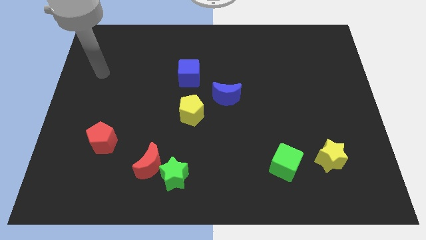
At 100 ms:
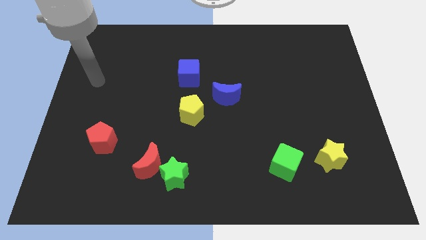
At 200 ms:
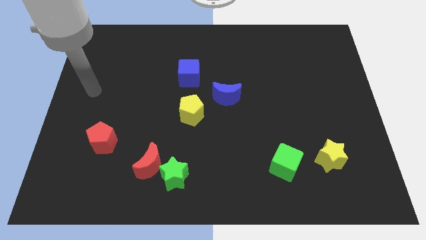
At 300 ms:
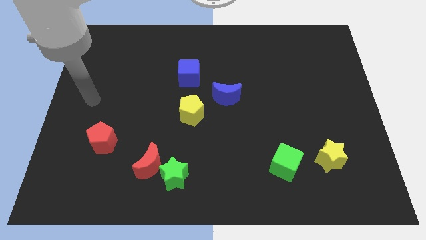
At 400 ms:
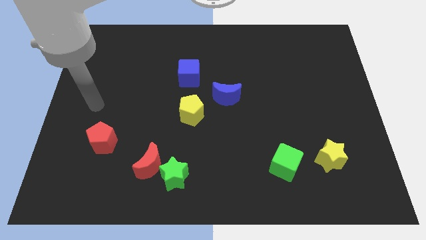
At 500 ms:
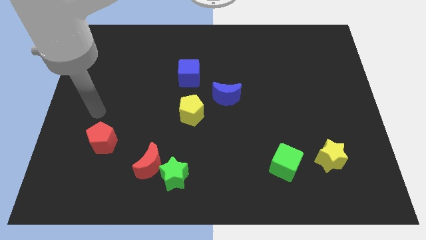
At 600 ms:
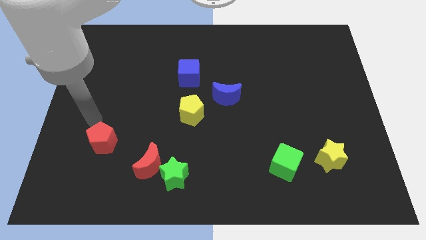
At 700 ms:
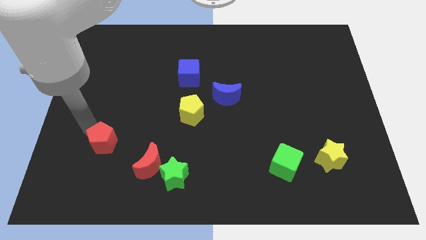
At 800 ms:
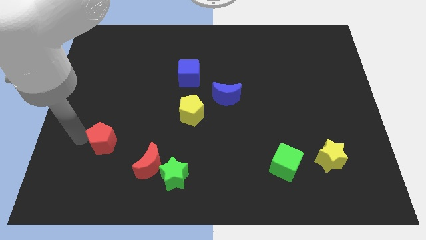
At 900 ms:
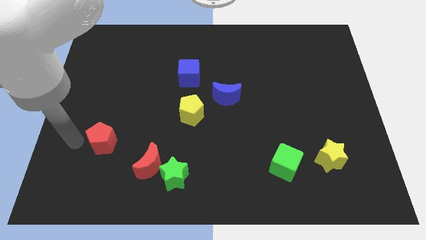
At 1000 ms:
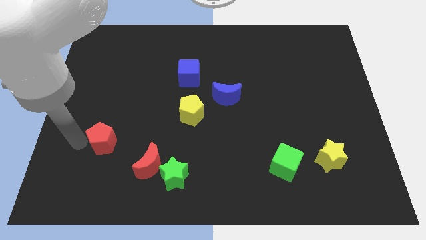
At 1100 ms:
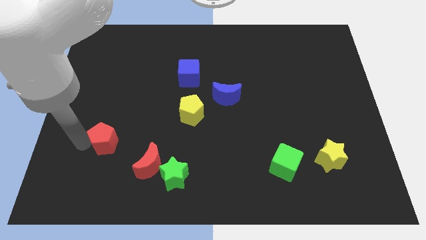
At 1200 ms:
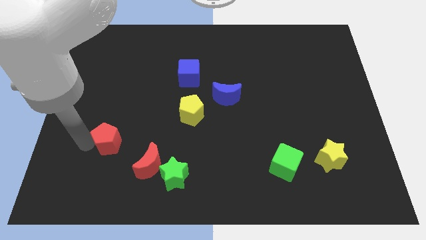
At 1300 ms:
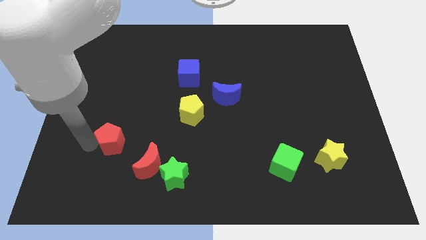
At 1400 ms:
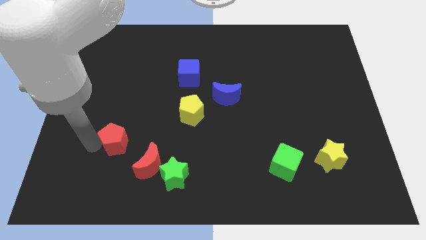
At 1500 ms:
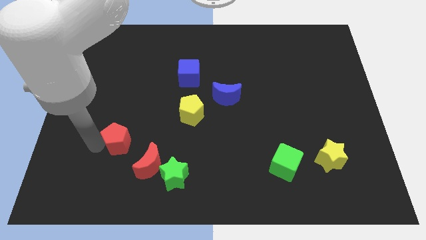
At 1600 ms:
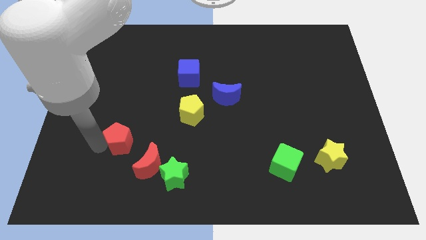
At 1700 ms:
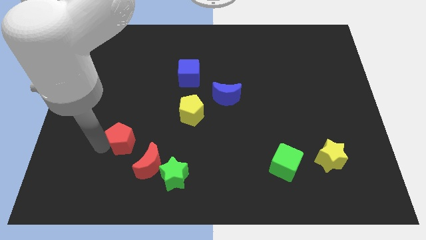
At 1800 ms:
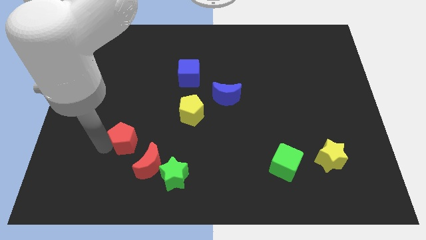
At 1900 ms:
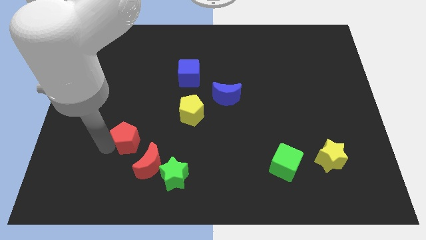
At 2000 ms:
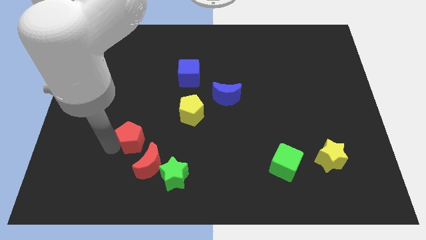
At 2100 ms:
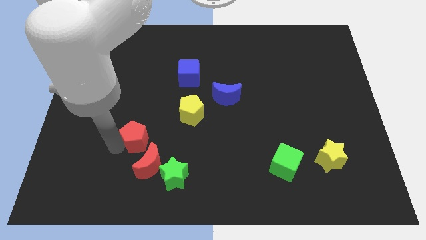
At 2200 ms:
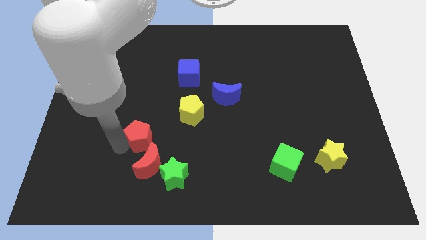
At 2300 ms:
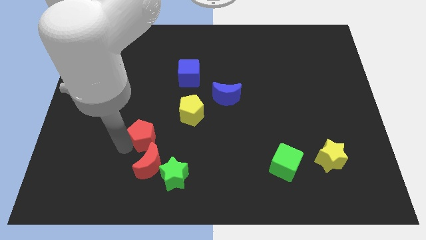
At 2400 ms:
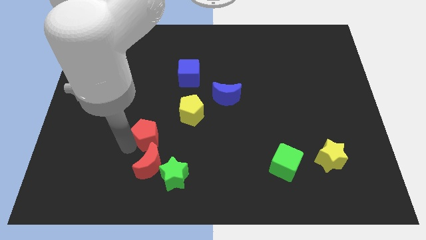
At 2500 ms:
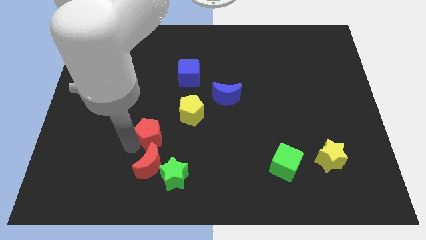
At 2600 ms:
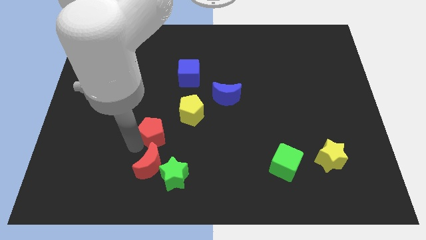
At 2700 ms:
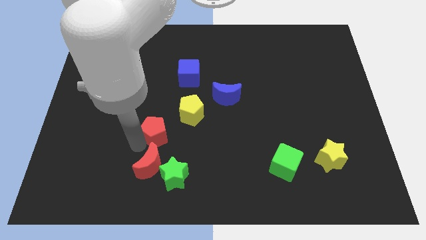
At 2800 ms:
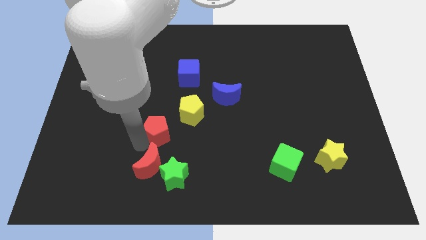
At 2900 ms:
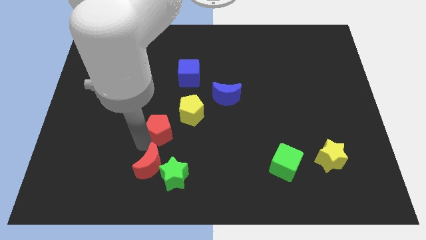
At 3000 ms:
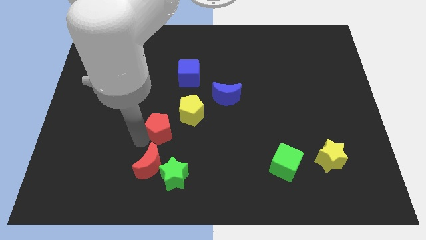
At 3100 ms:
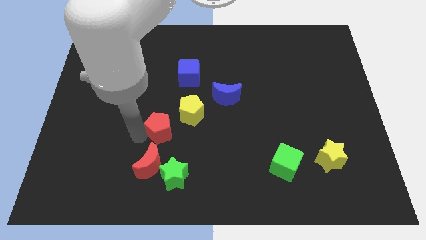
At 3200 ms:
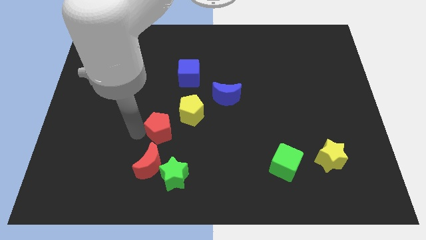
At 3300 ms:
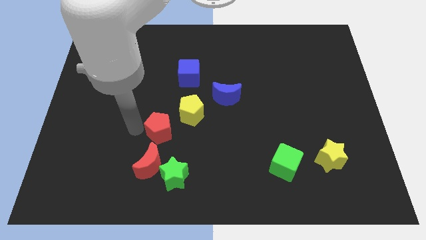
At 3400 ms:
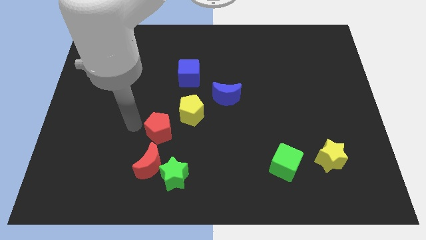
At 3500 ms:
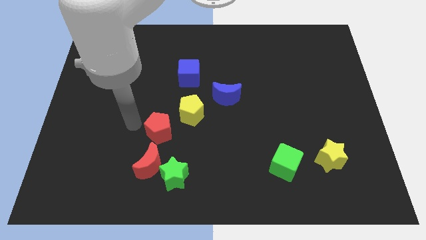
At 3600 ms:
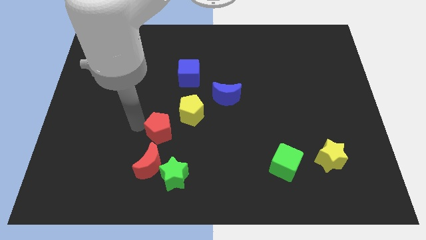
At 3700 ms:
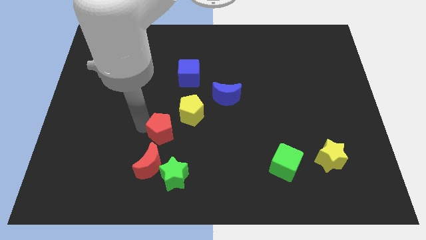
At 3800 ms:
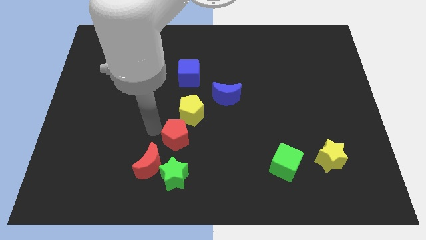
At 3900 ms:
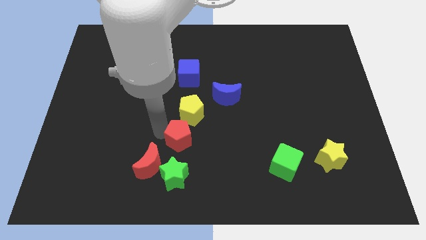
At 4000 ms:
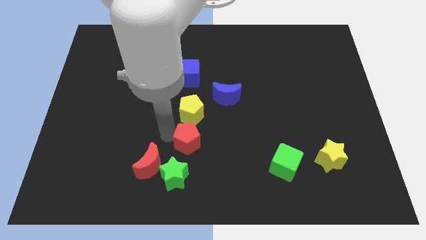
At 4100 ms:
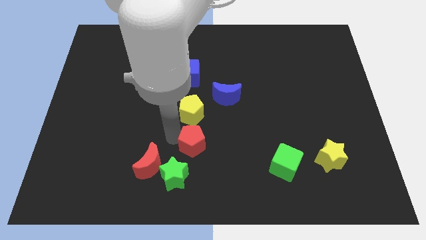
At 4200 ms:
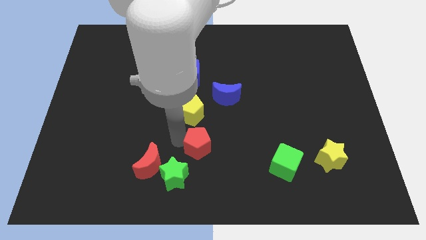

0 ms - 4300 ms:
move the red pentagon to the right

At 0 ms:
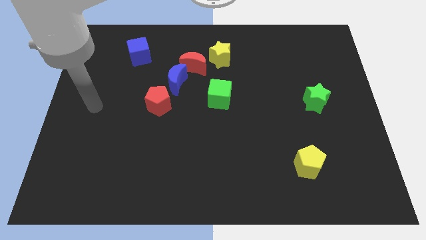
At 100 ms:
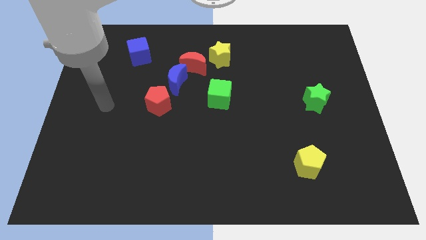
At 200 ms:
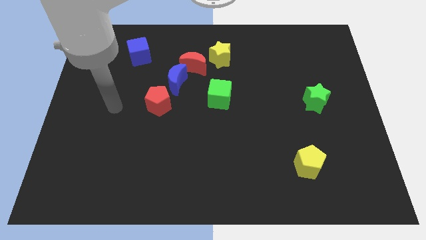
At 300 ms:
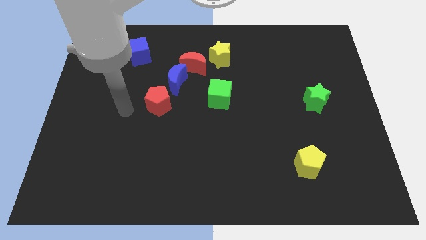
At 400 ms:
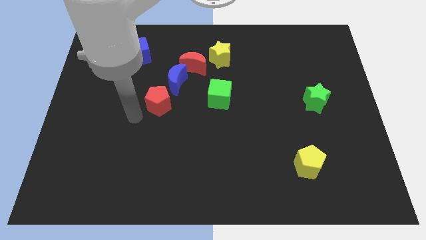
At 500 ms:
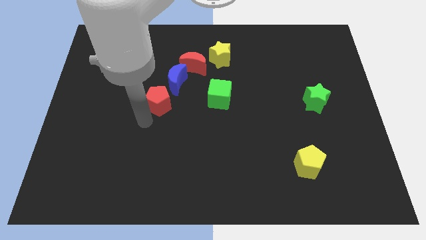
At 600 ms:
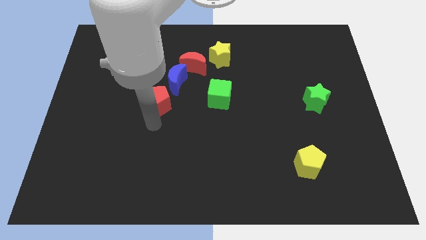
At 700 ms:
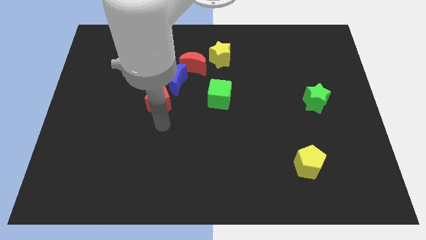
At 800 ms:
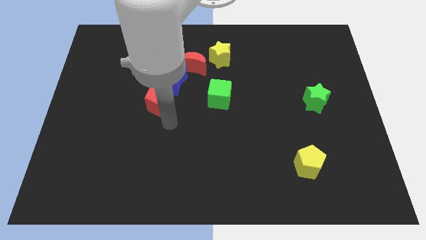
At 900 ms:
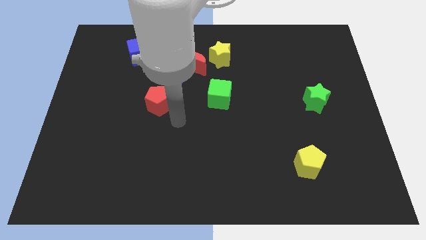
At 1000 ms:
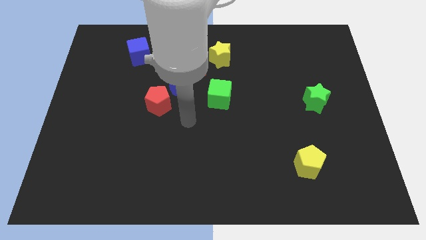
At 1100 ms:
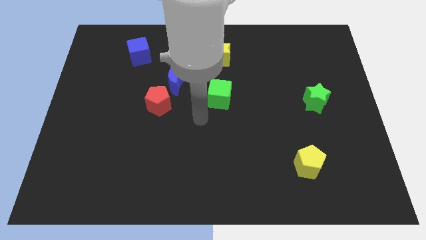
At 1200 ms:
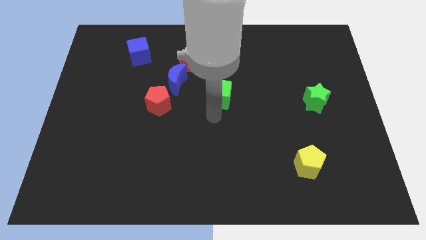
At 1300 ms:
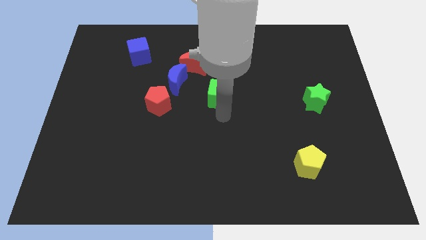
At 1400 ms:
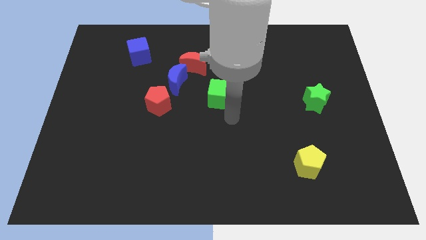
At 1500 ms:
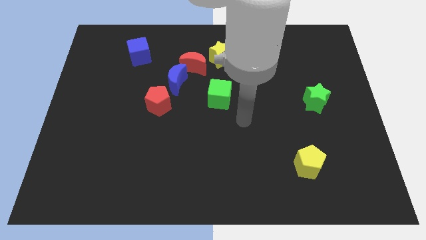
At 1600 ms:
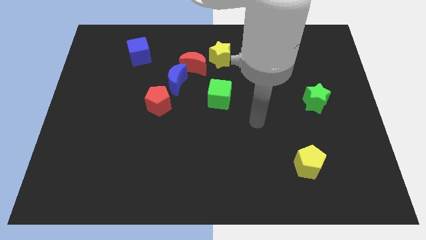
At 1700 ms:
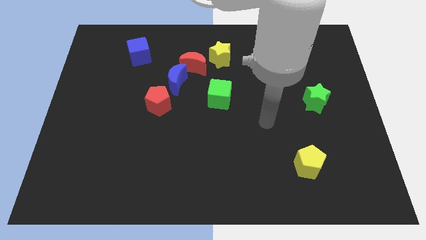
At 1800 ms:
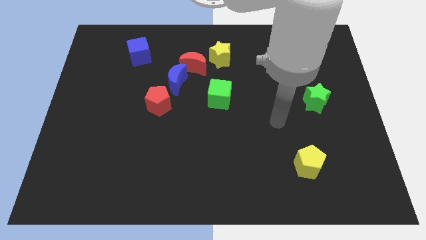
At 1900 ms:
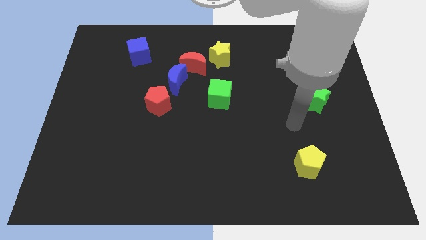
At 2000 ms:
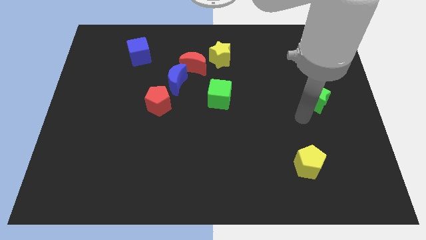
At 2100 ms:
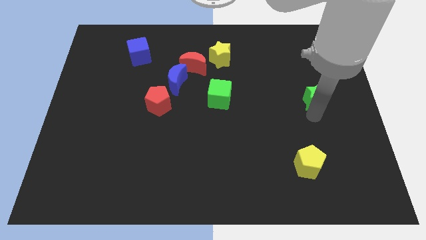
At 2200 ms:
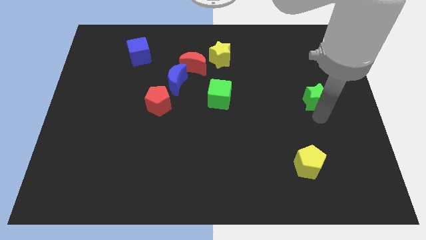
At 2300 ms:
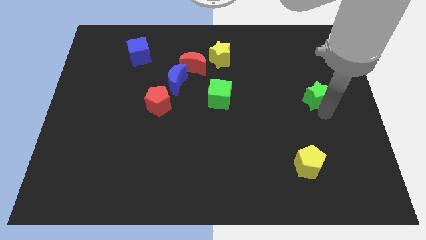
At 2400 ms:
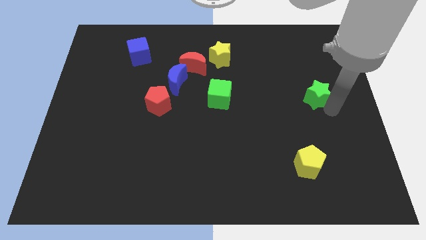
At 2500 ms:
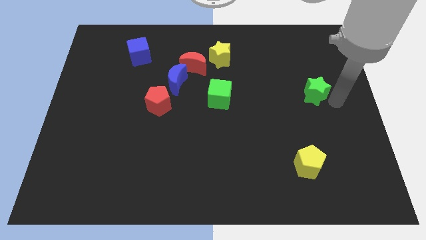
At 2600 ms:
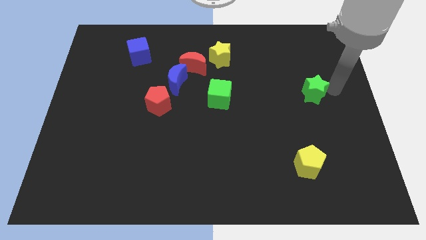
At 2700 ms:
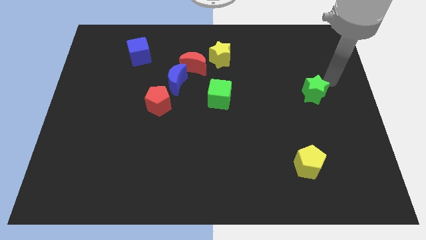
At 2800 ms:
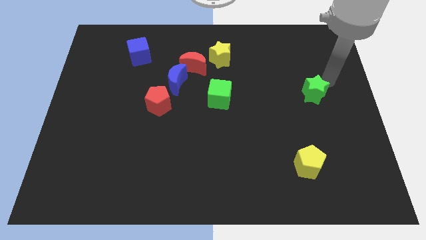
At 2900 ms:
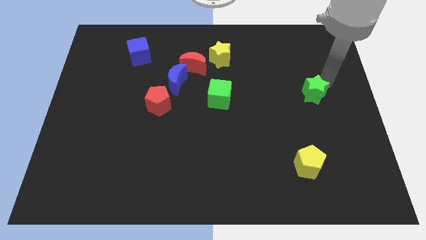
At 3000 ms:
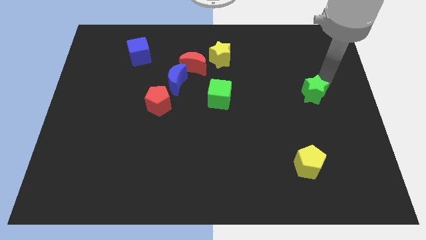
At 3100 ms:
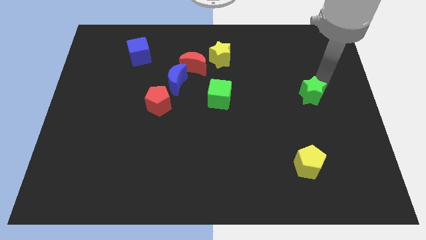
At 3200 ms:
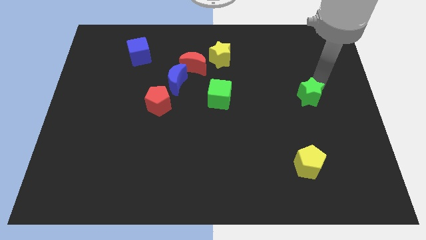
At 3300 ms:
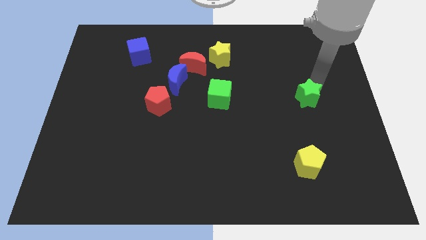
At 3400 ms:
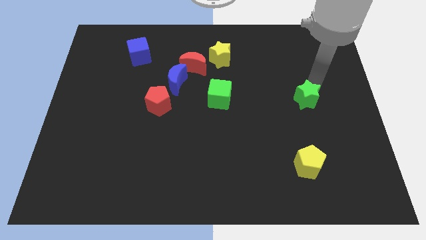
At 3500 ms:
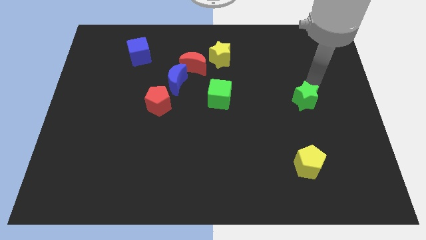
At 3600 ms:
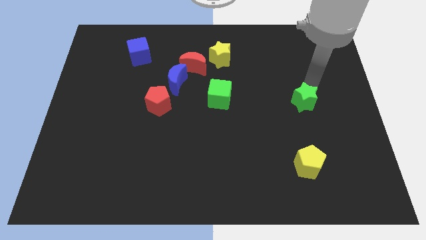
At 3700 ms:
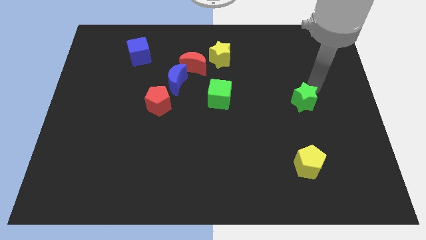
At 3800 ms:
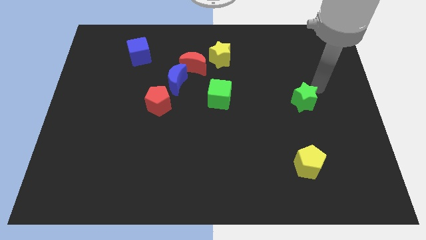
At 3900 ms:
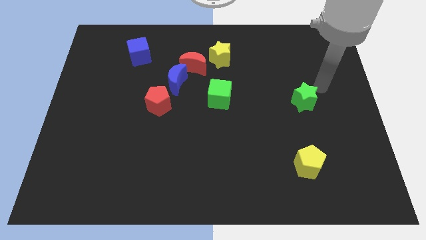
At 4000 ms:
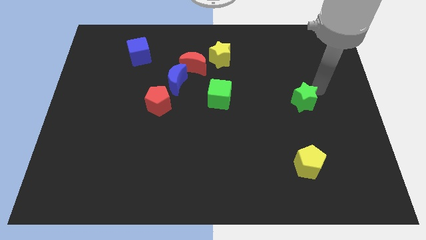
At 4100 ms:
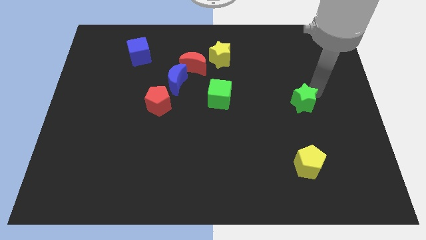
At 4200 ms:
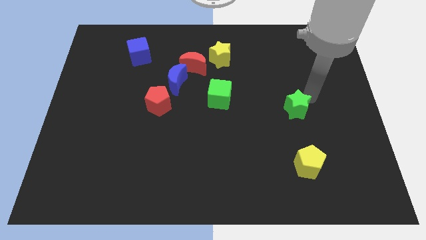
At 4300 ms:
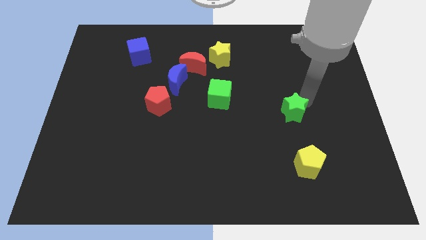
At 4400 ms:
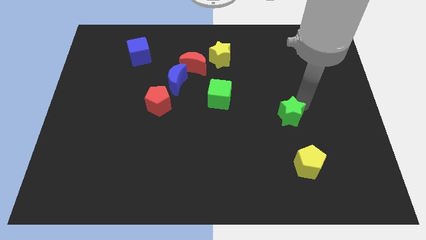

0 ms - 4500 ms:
slightly move the green star diagonally downwards and left
